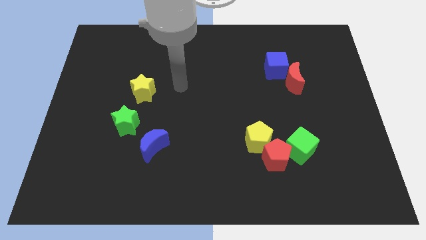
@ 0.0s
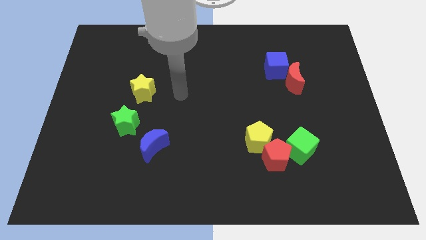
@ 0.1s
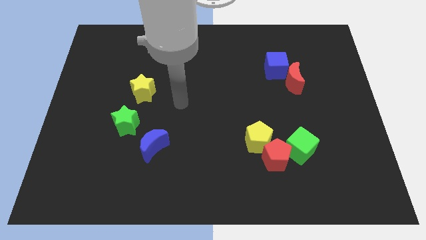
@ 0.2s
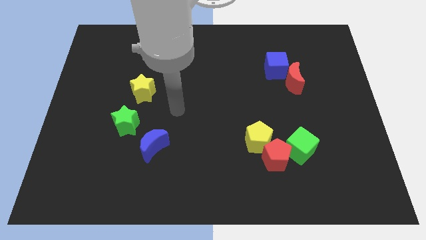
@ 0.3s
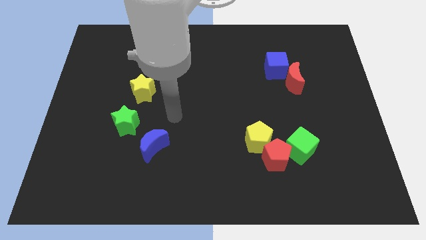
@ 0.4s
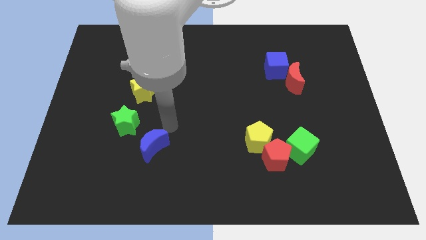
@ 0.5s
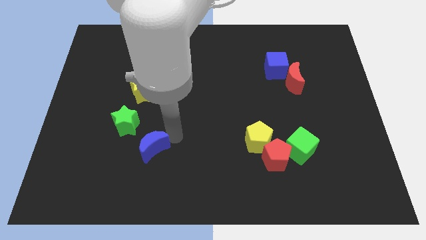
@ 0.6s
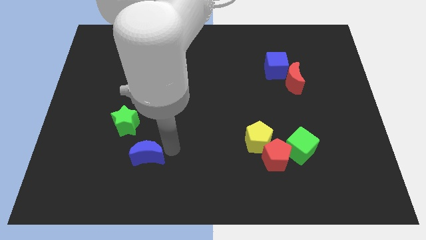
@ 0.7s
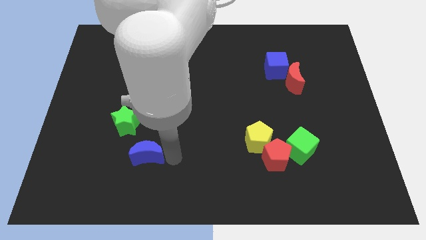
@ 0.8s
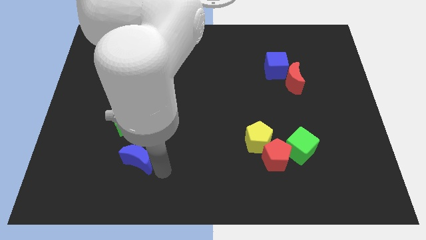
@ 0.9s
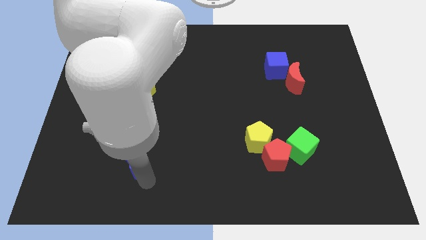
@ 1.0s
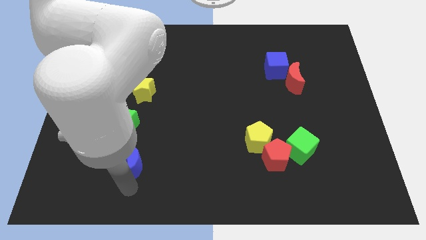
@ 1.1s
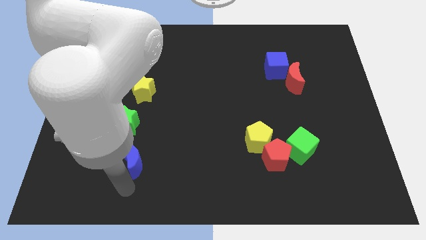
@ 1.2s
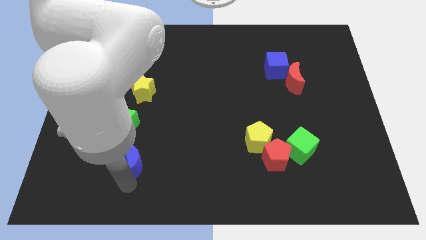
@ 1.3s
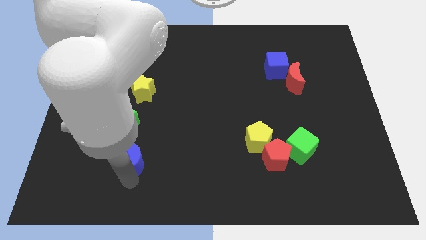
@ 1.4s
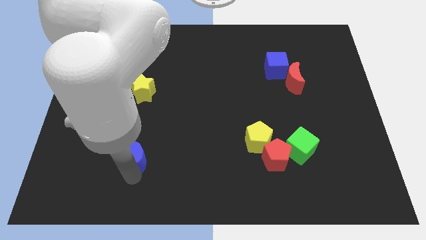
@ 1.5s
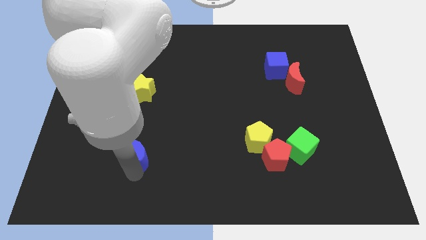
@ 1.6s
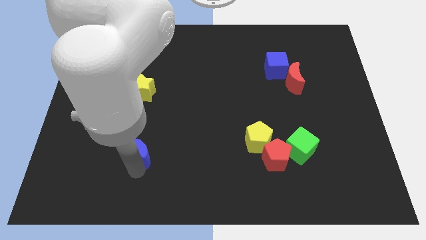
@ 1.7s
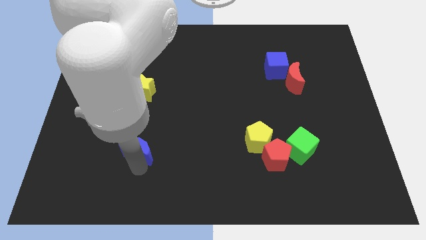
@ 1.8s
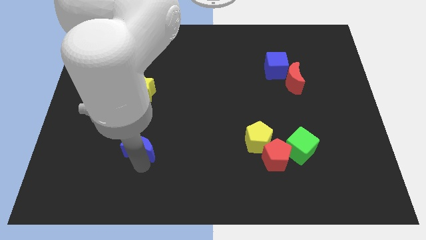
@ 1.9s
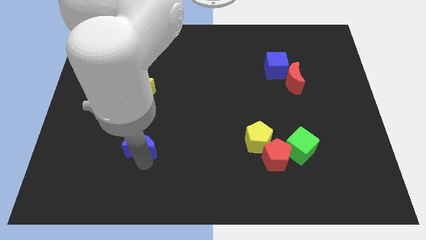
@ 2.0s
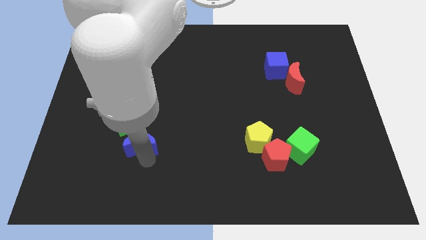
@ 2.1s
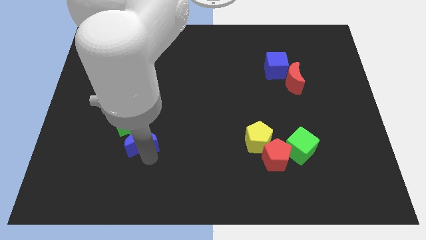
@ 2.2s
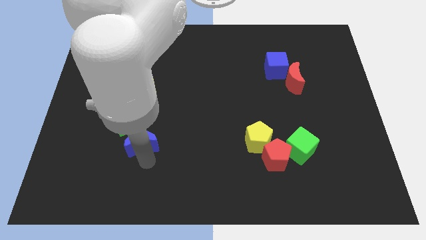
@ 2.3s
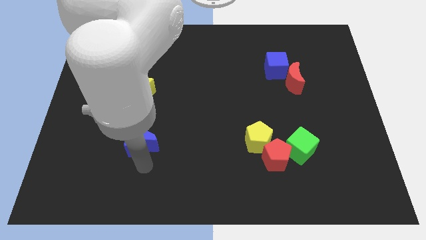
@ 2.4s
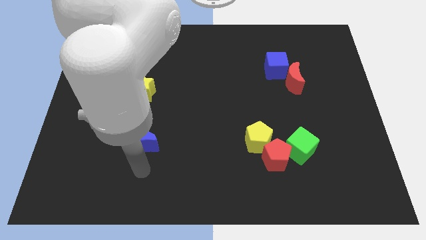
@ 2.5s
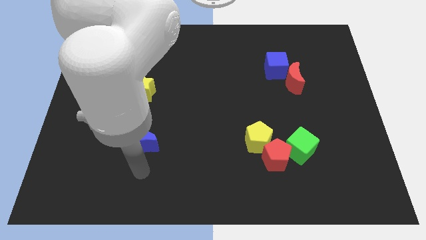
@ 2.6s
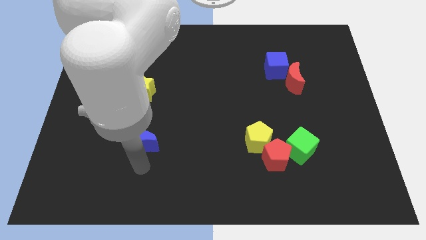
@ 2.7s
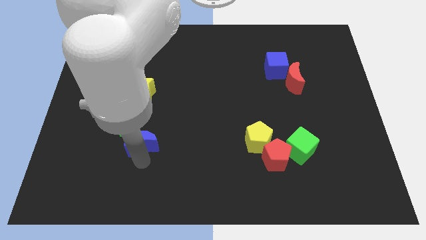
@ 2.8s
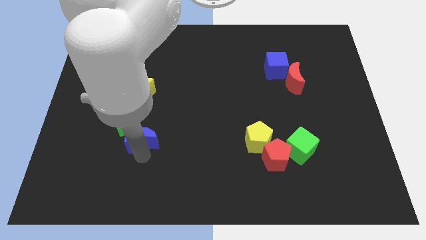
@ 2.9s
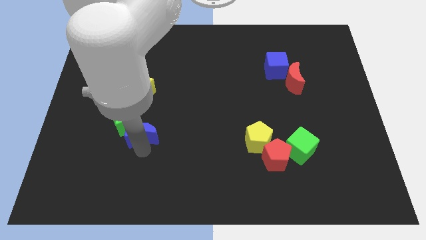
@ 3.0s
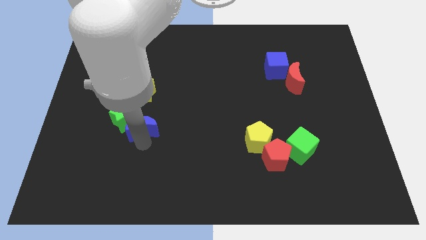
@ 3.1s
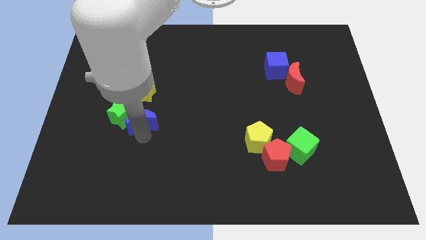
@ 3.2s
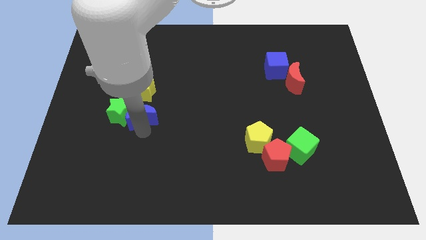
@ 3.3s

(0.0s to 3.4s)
push the blue moon upwards and to the left diagonally somewhat

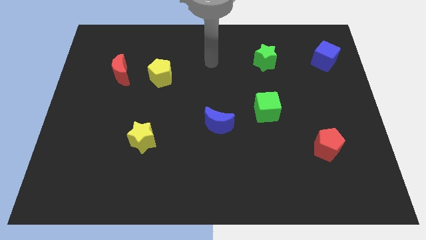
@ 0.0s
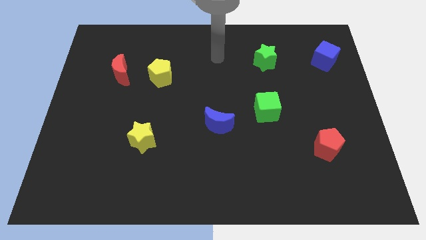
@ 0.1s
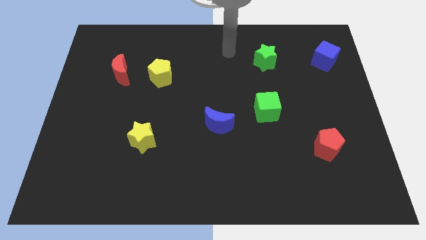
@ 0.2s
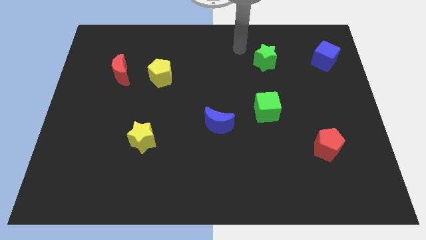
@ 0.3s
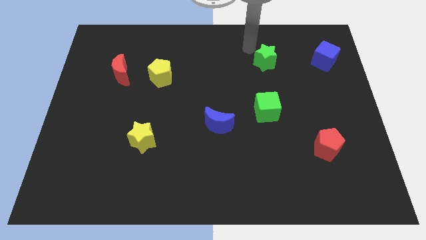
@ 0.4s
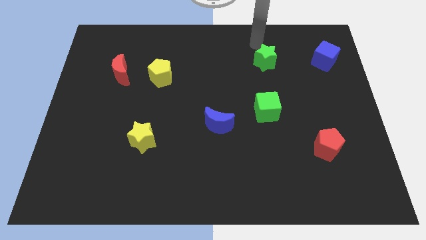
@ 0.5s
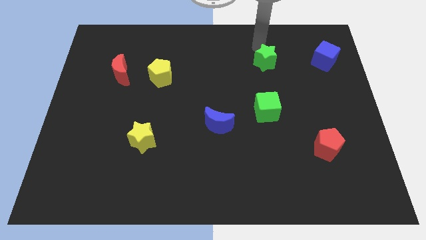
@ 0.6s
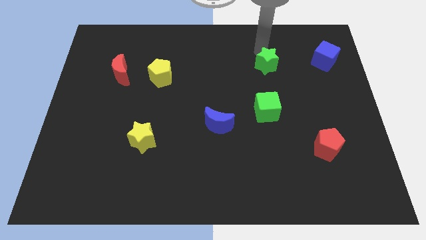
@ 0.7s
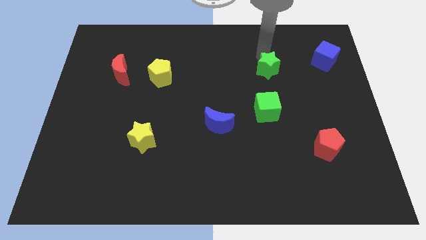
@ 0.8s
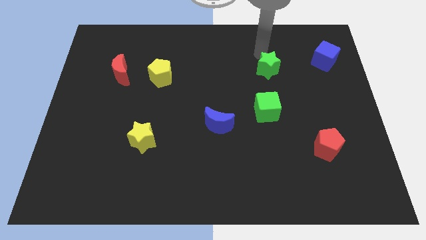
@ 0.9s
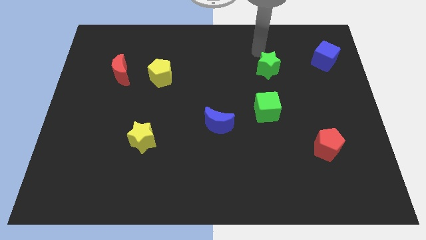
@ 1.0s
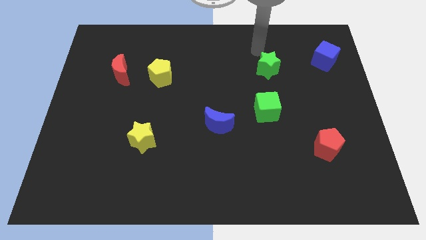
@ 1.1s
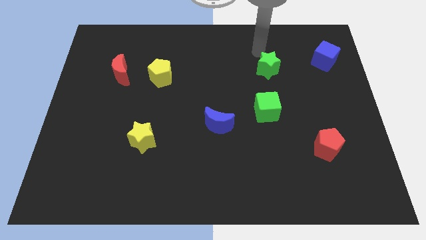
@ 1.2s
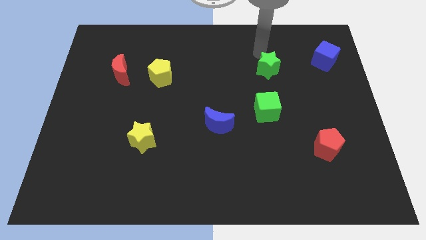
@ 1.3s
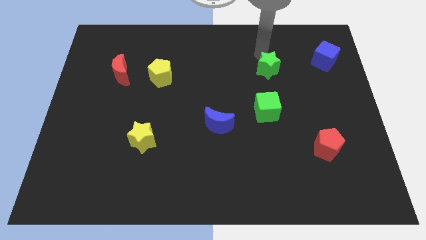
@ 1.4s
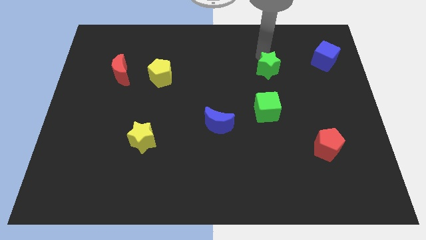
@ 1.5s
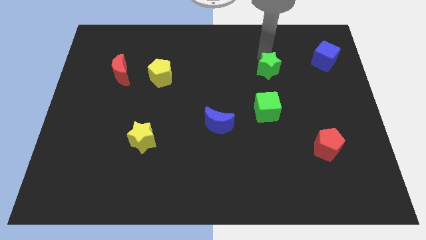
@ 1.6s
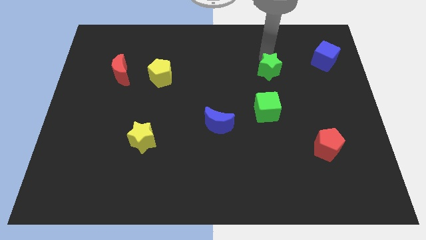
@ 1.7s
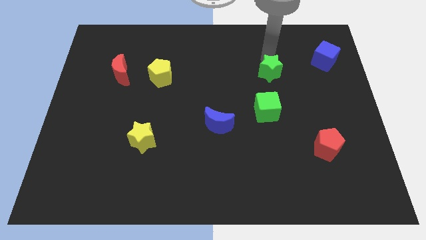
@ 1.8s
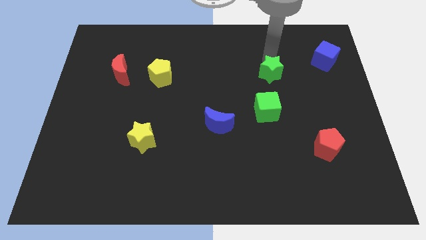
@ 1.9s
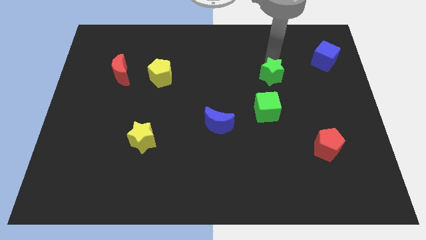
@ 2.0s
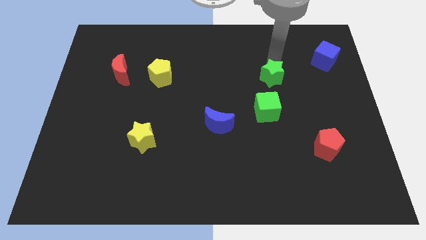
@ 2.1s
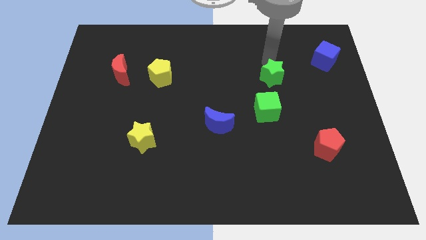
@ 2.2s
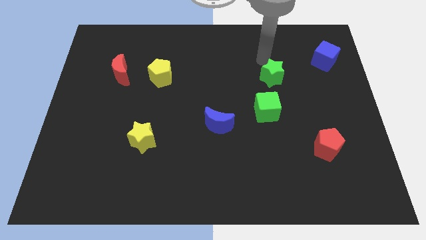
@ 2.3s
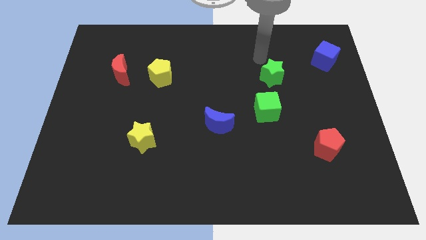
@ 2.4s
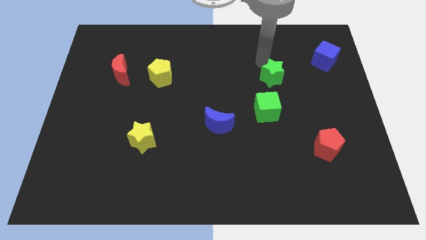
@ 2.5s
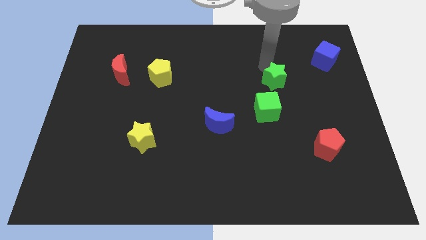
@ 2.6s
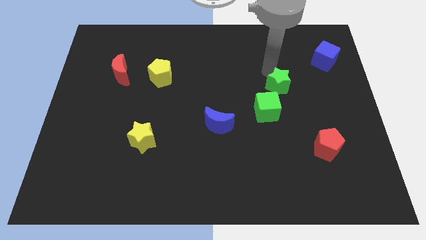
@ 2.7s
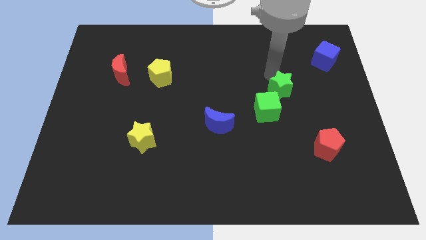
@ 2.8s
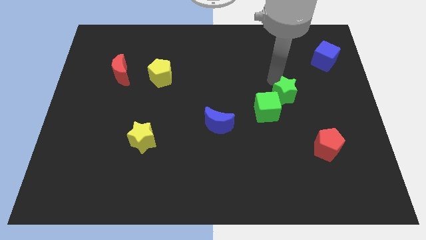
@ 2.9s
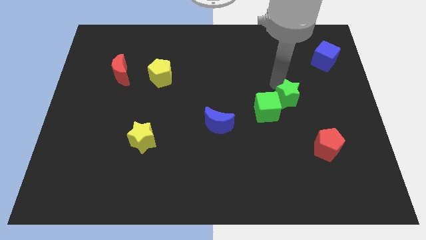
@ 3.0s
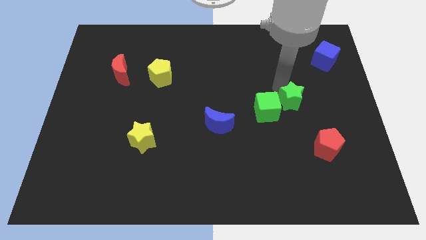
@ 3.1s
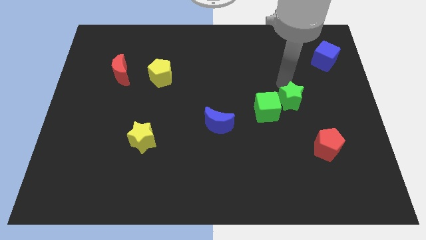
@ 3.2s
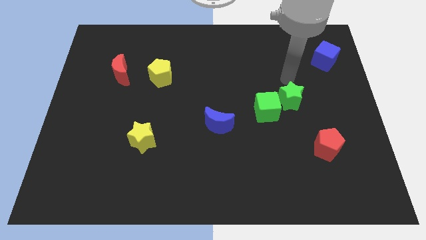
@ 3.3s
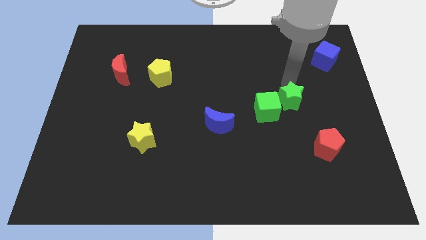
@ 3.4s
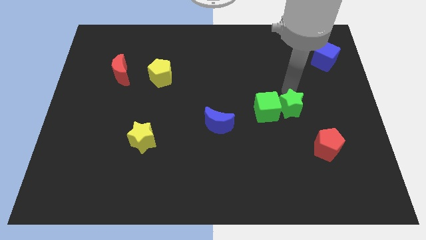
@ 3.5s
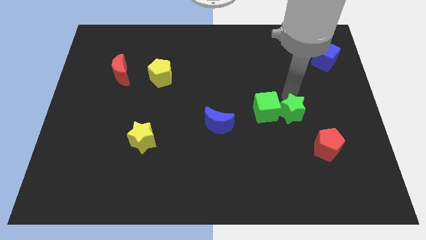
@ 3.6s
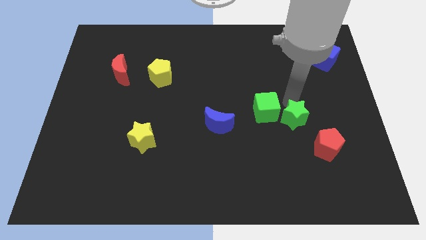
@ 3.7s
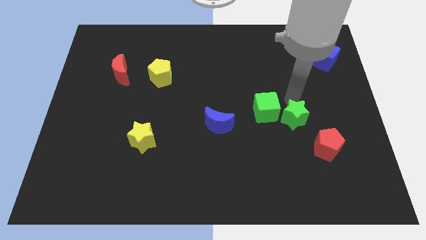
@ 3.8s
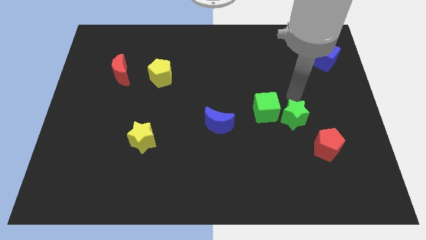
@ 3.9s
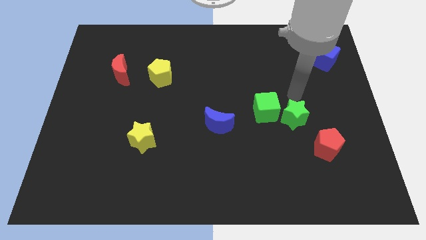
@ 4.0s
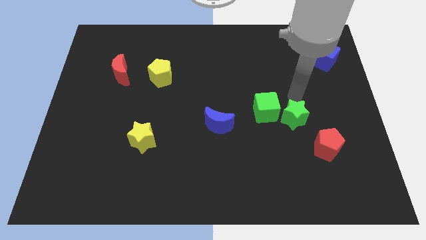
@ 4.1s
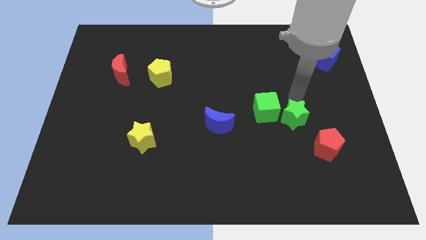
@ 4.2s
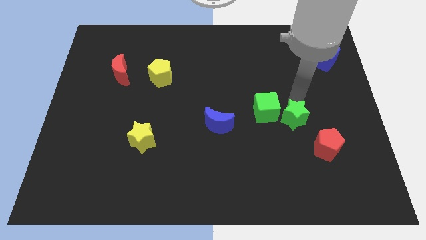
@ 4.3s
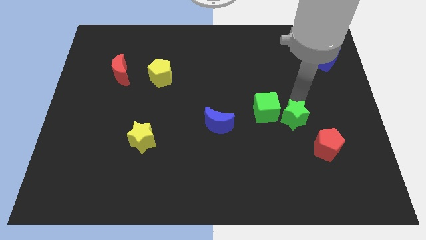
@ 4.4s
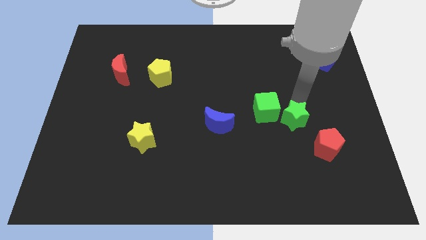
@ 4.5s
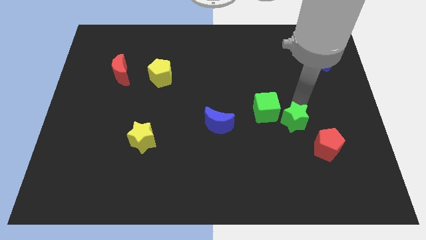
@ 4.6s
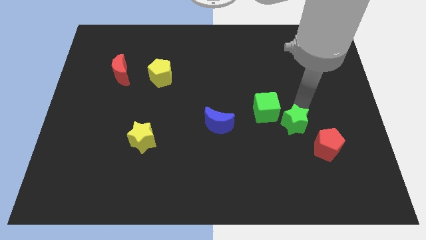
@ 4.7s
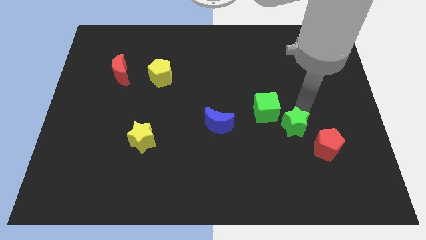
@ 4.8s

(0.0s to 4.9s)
move the green star down
